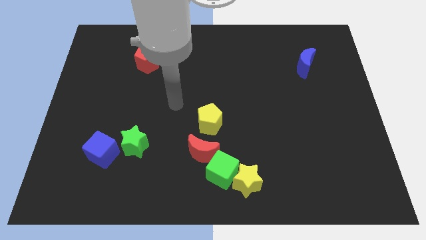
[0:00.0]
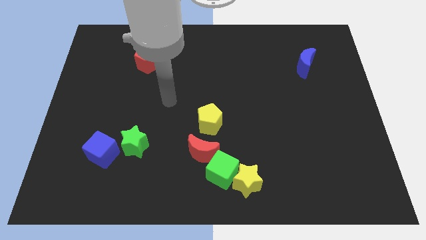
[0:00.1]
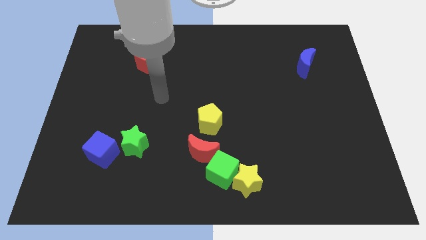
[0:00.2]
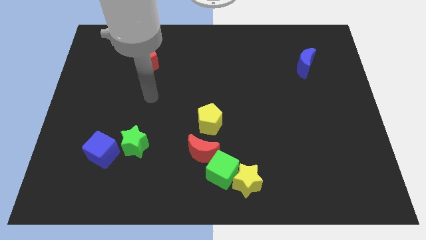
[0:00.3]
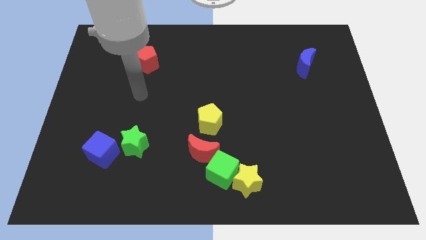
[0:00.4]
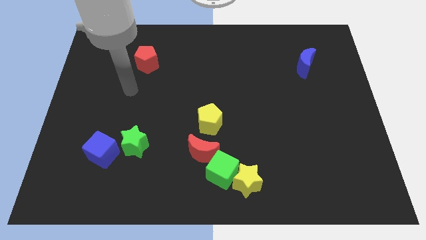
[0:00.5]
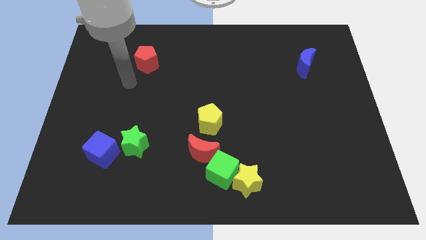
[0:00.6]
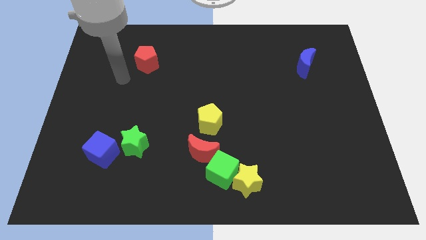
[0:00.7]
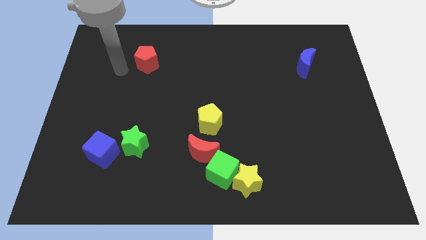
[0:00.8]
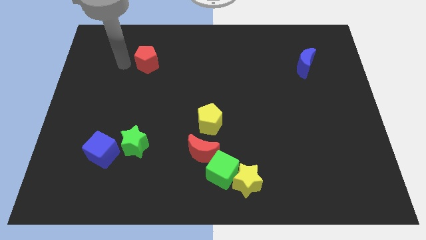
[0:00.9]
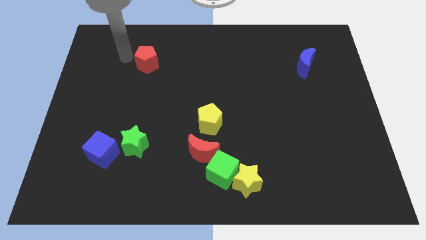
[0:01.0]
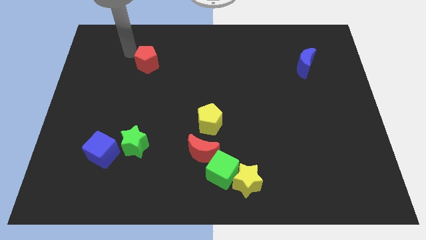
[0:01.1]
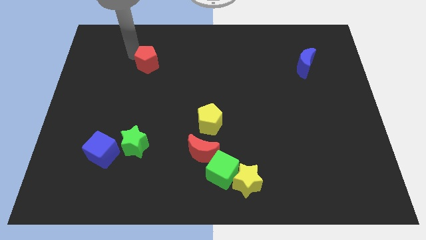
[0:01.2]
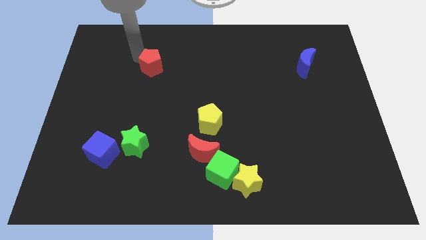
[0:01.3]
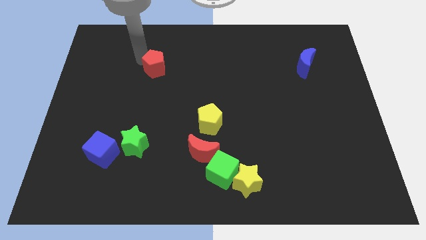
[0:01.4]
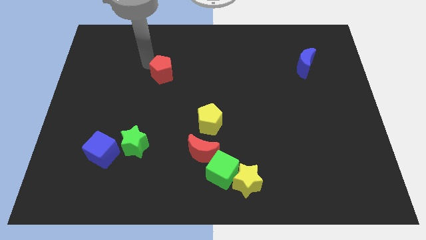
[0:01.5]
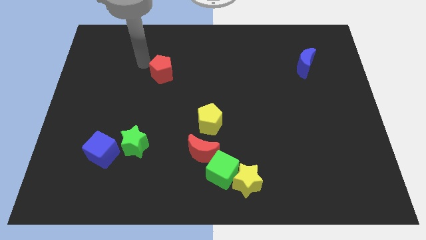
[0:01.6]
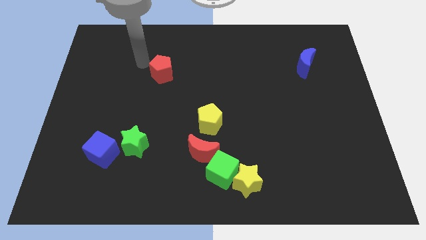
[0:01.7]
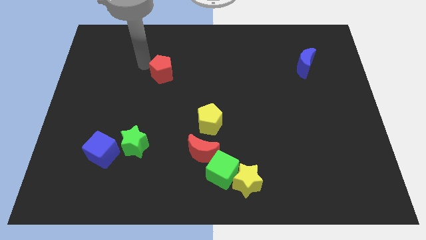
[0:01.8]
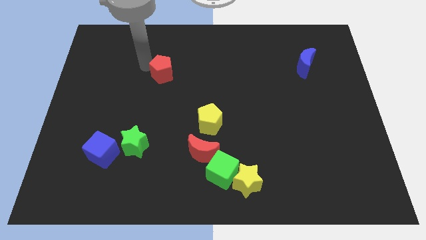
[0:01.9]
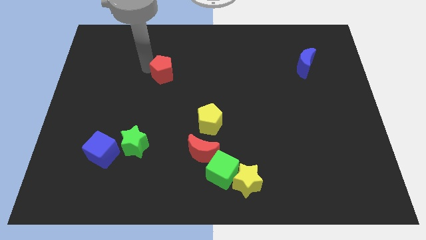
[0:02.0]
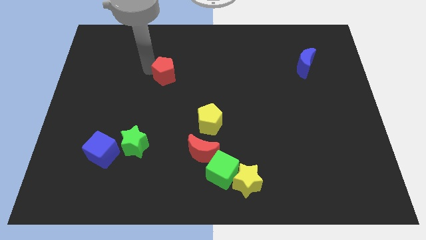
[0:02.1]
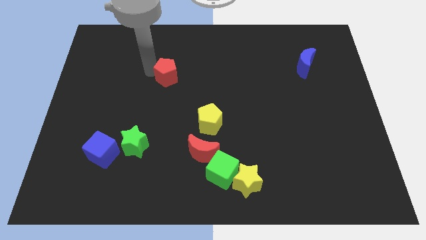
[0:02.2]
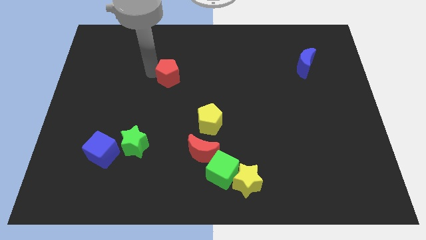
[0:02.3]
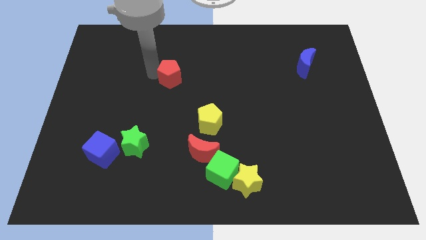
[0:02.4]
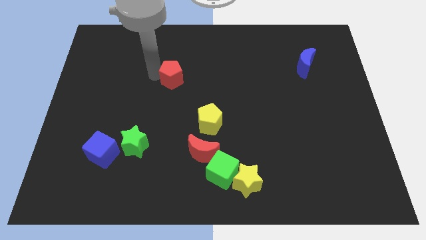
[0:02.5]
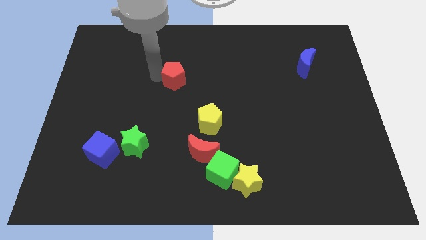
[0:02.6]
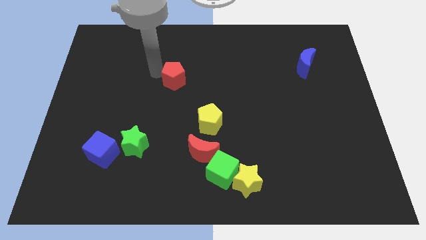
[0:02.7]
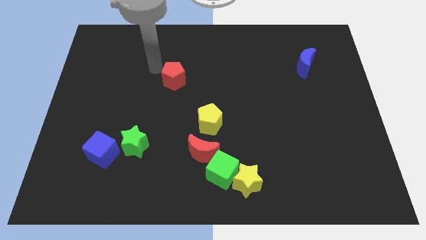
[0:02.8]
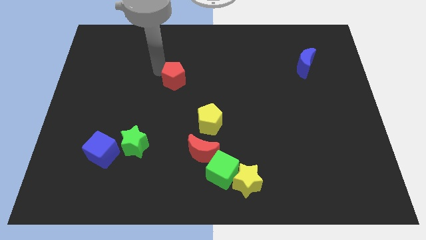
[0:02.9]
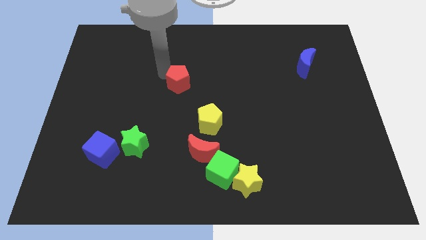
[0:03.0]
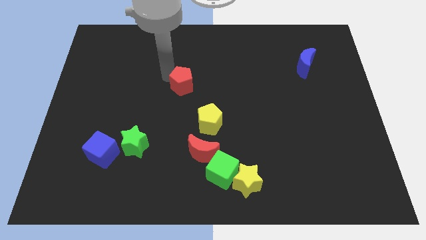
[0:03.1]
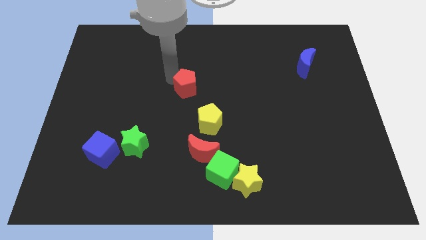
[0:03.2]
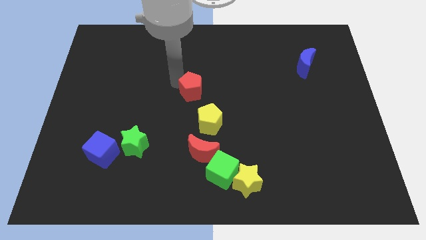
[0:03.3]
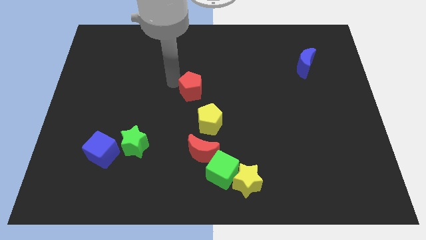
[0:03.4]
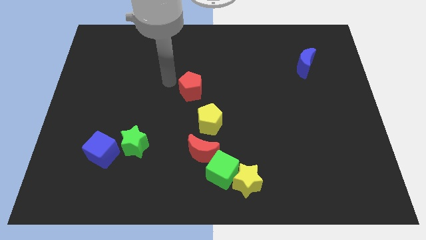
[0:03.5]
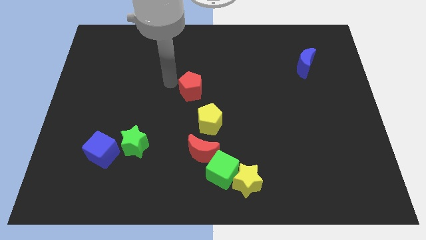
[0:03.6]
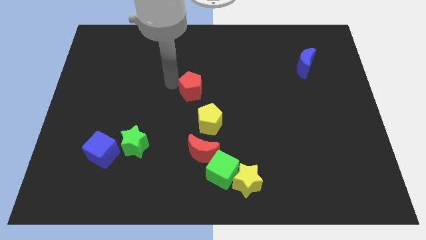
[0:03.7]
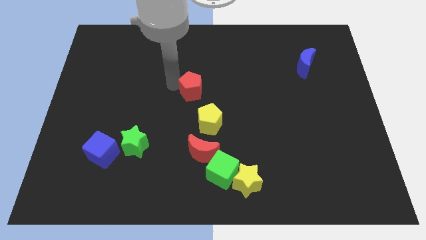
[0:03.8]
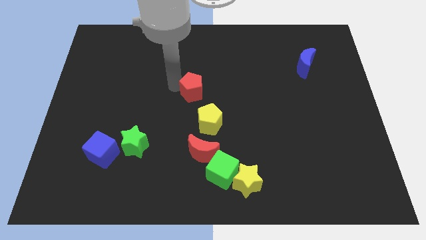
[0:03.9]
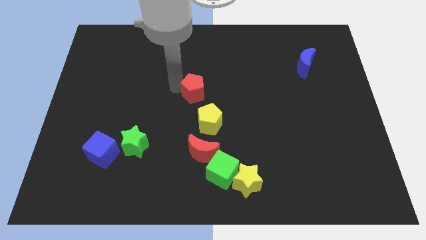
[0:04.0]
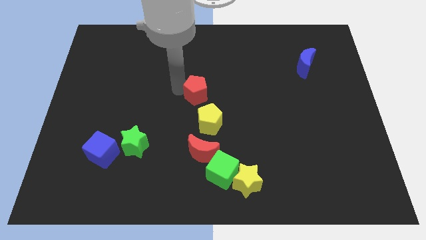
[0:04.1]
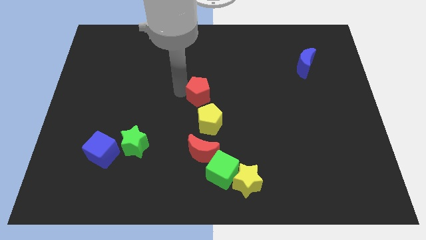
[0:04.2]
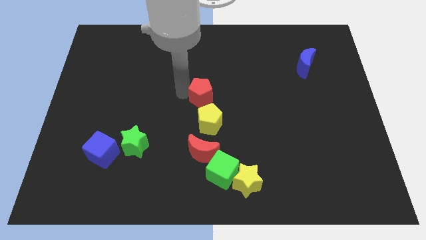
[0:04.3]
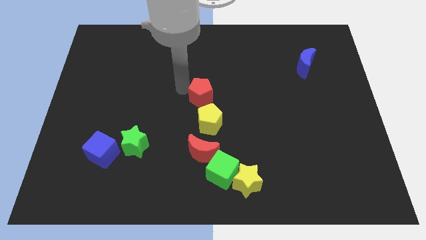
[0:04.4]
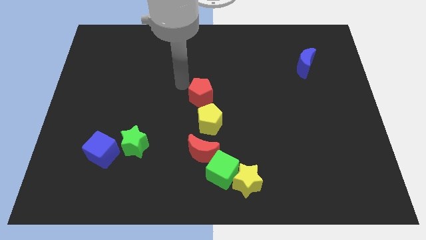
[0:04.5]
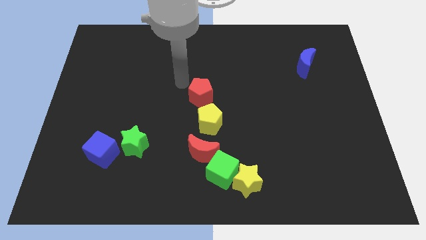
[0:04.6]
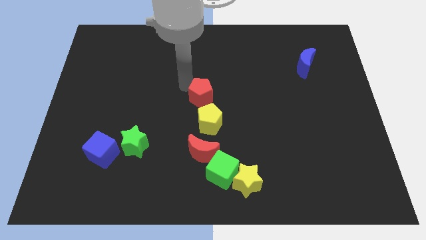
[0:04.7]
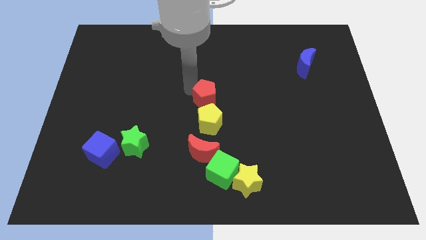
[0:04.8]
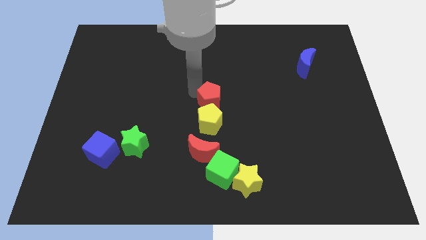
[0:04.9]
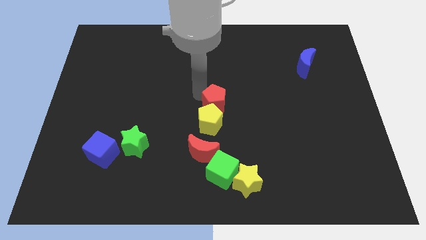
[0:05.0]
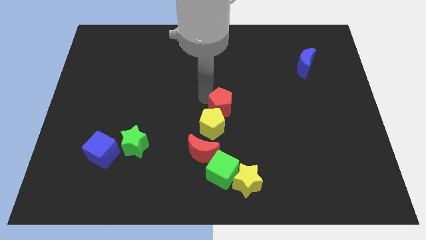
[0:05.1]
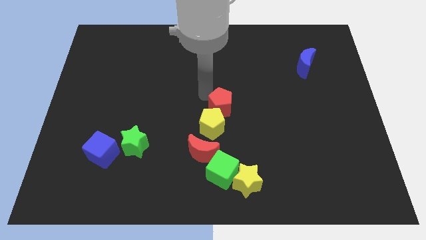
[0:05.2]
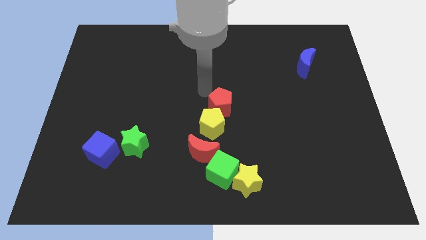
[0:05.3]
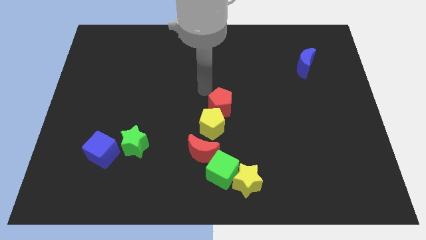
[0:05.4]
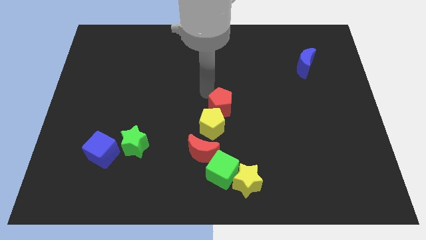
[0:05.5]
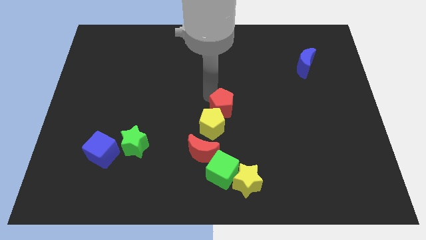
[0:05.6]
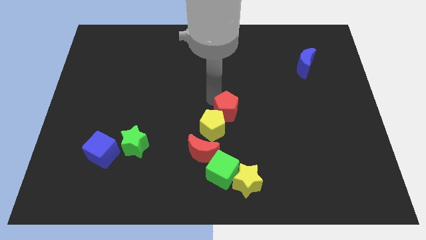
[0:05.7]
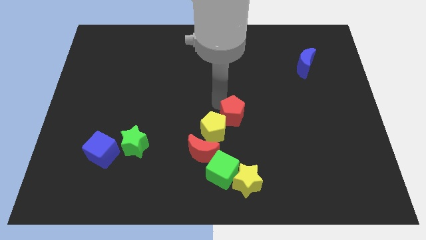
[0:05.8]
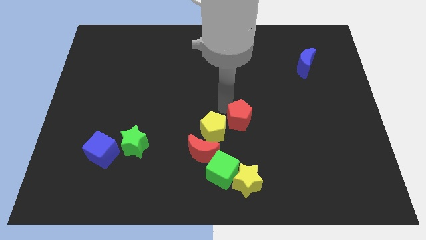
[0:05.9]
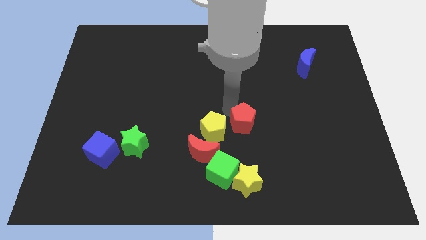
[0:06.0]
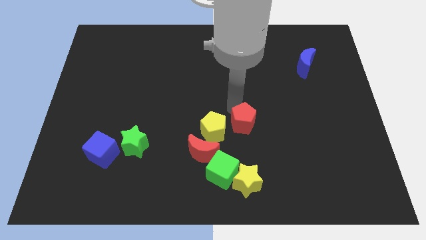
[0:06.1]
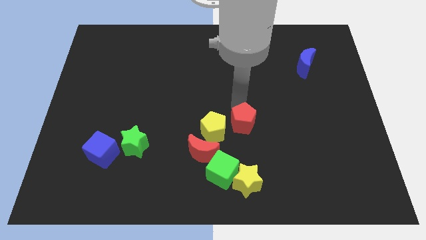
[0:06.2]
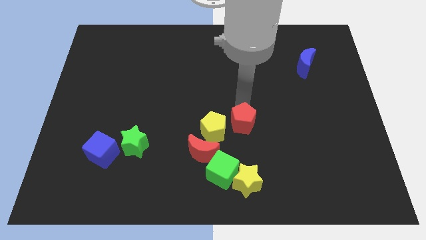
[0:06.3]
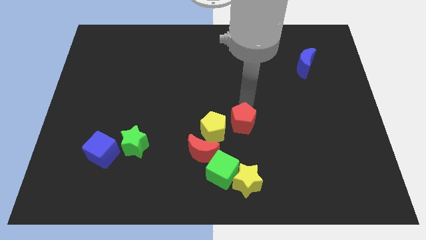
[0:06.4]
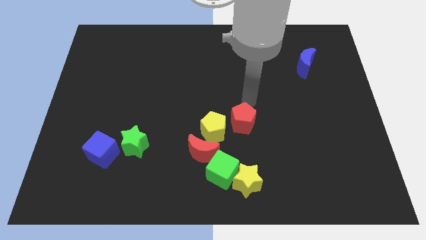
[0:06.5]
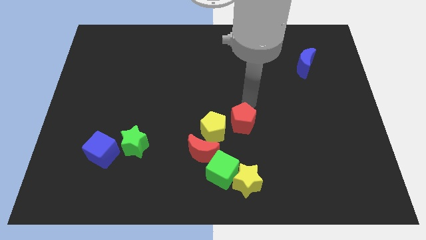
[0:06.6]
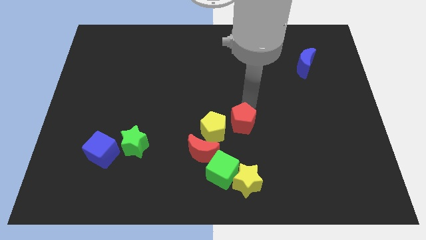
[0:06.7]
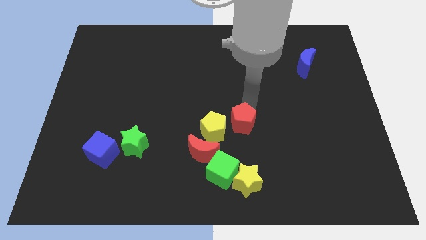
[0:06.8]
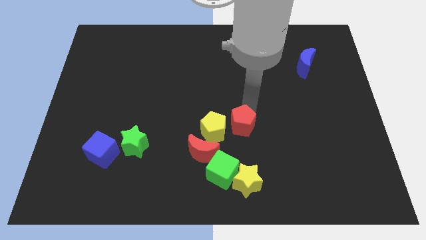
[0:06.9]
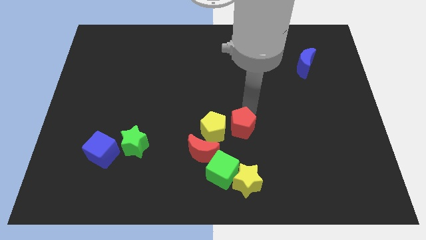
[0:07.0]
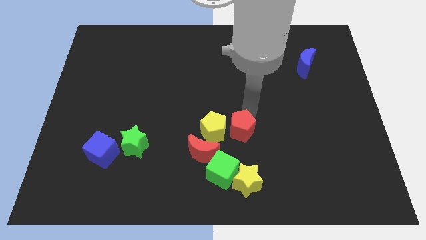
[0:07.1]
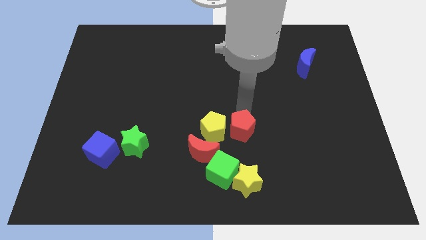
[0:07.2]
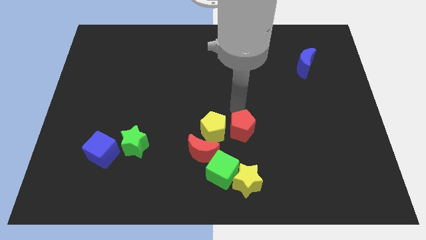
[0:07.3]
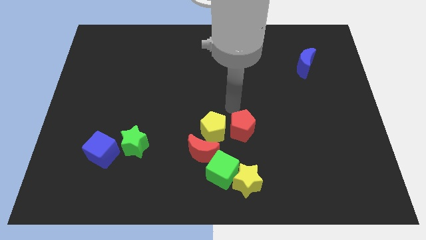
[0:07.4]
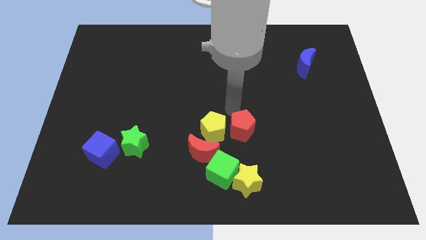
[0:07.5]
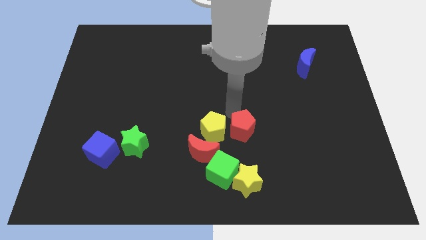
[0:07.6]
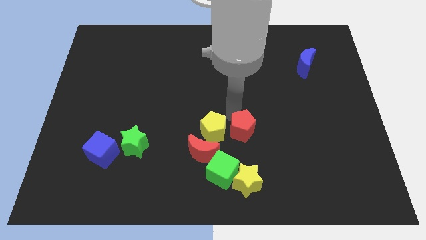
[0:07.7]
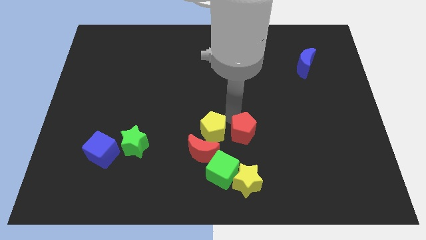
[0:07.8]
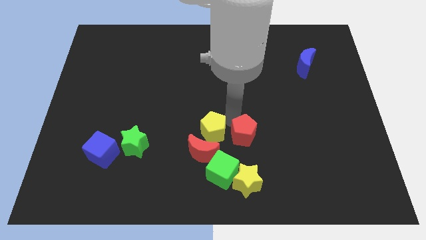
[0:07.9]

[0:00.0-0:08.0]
push the red pentagon to the right side of the red moon
